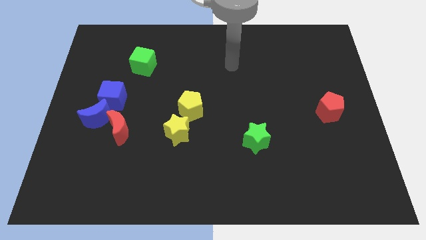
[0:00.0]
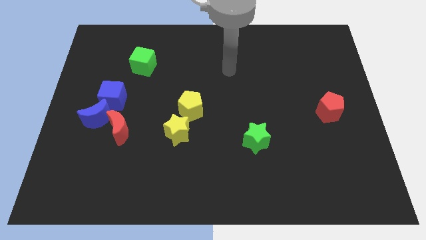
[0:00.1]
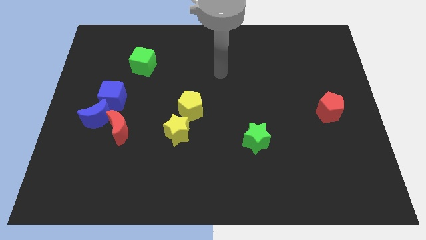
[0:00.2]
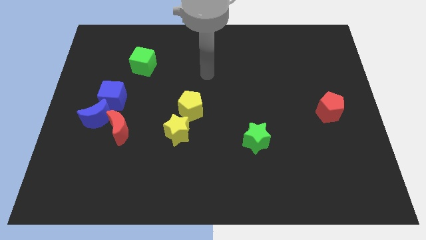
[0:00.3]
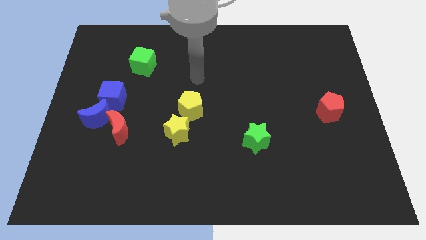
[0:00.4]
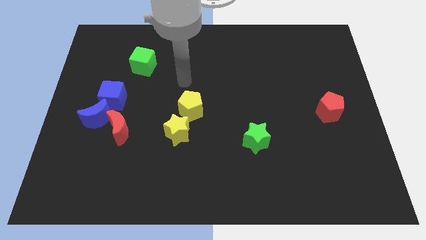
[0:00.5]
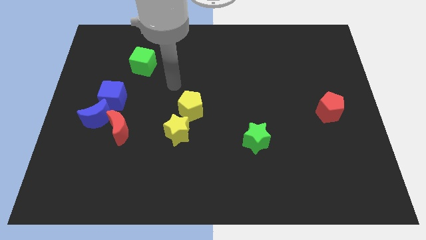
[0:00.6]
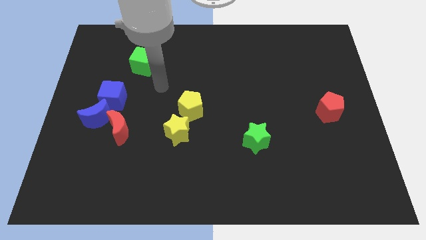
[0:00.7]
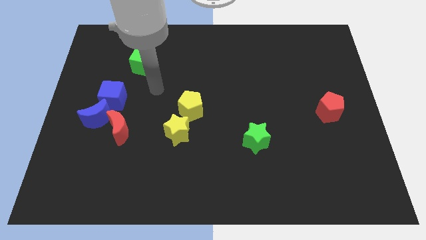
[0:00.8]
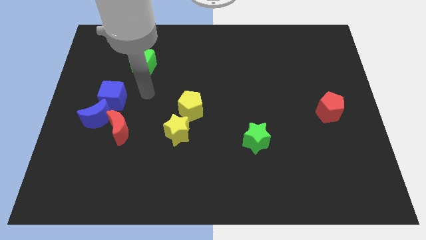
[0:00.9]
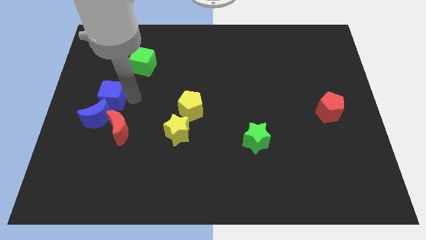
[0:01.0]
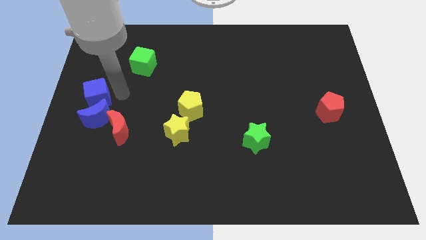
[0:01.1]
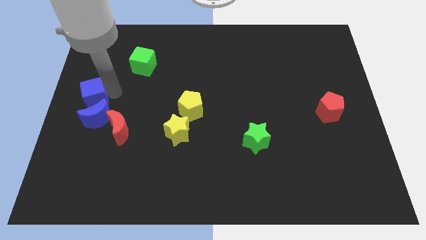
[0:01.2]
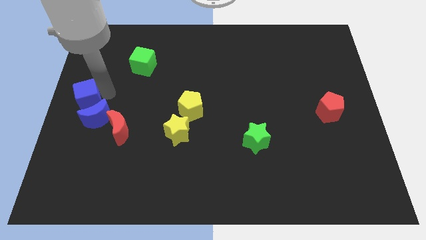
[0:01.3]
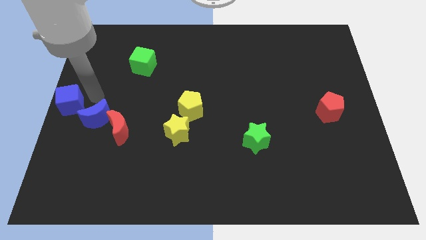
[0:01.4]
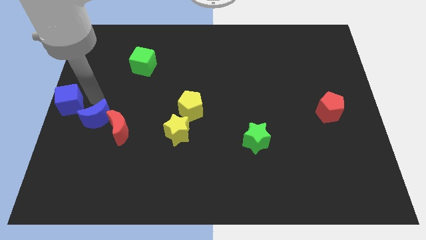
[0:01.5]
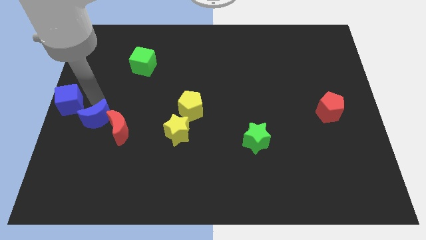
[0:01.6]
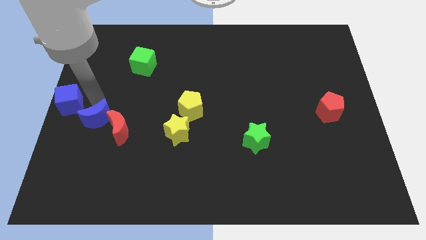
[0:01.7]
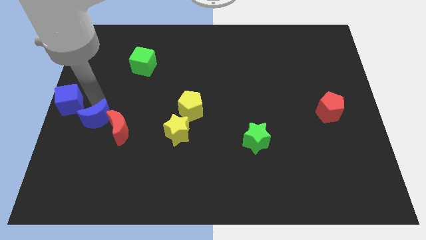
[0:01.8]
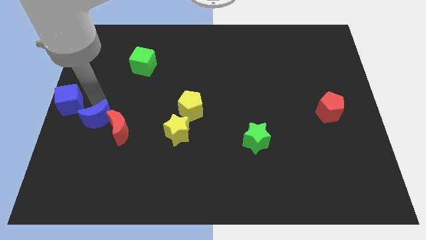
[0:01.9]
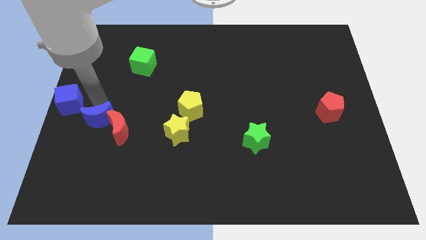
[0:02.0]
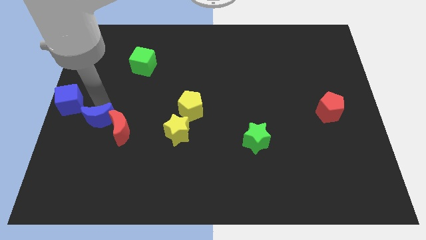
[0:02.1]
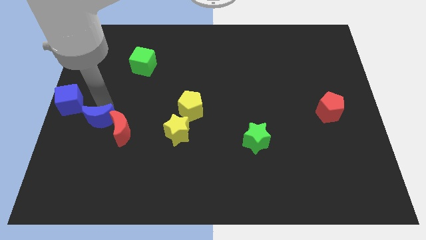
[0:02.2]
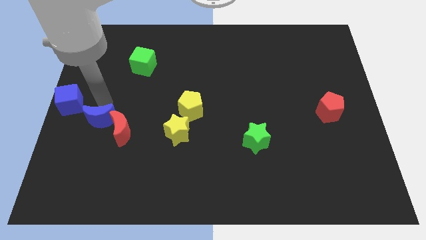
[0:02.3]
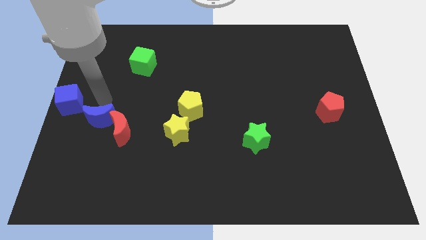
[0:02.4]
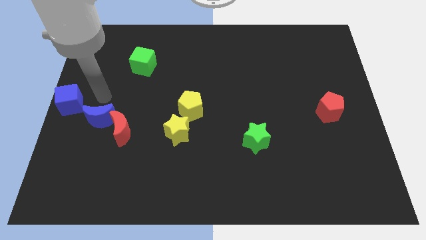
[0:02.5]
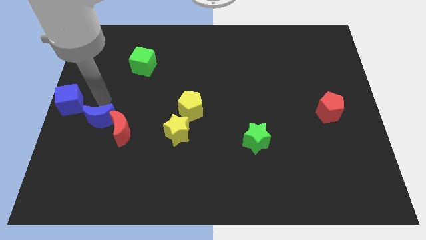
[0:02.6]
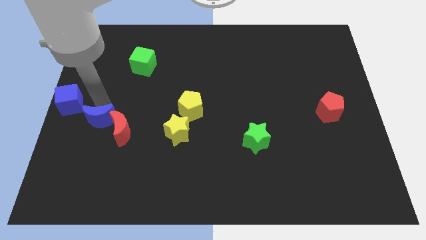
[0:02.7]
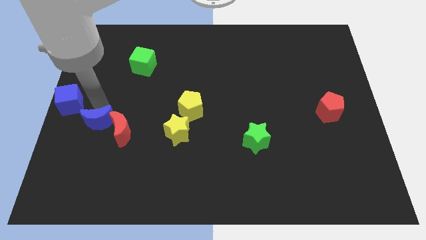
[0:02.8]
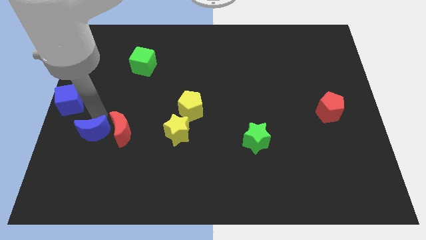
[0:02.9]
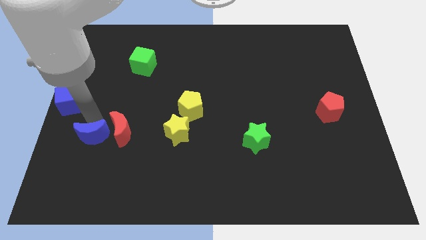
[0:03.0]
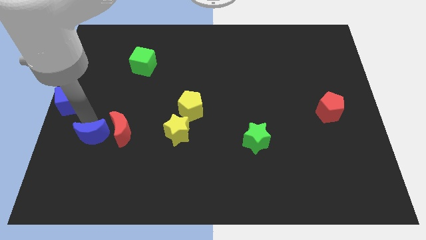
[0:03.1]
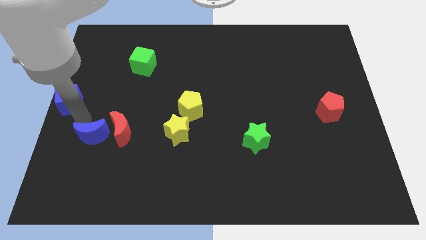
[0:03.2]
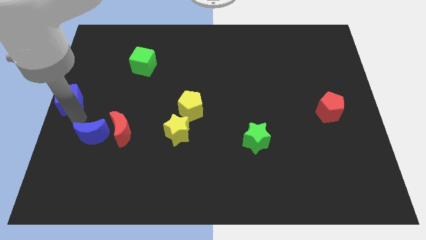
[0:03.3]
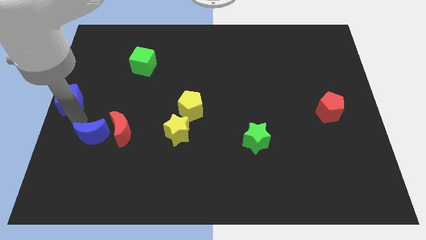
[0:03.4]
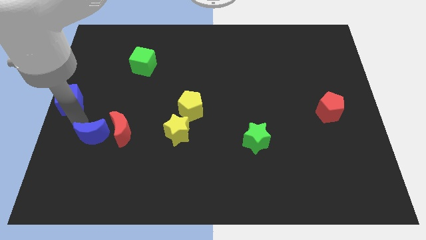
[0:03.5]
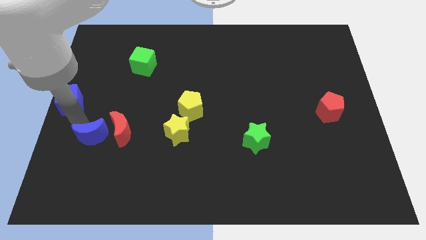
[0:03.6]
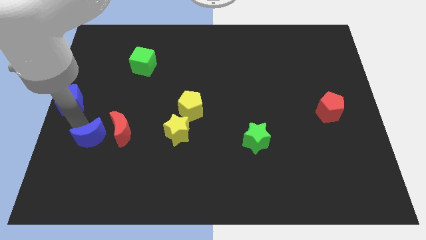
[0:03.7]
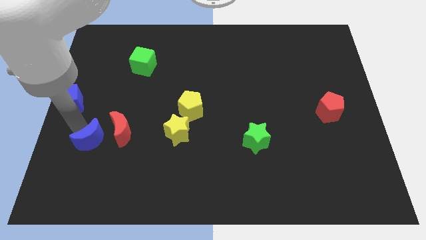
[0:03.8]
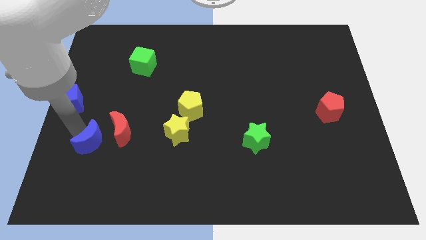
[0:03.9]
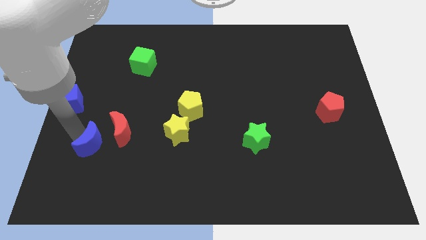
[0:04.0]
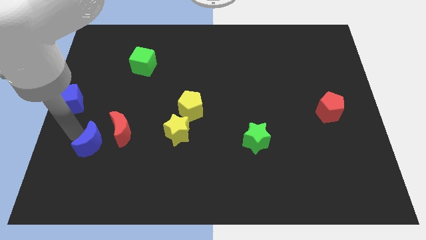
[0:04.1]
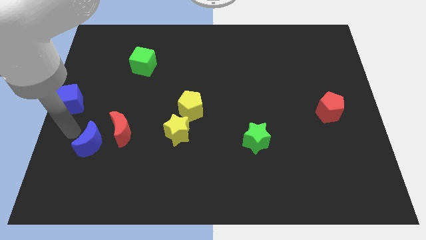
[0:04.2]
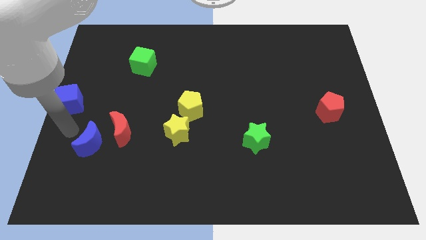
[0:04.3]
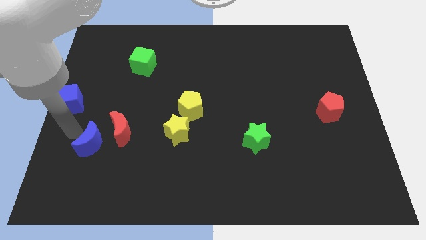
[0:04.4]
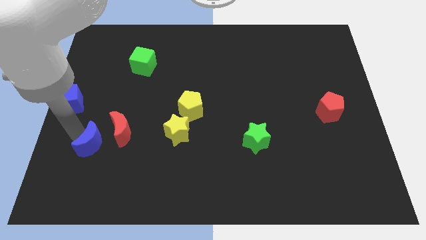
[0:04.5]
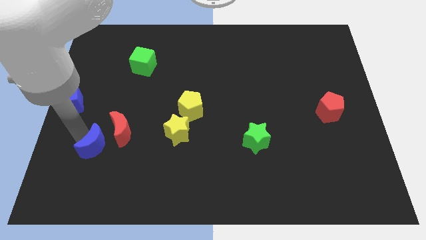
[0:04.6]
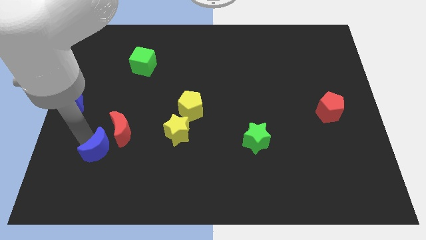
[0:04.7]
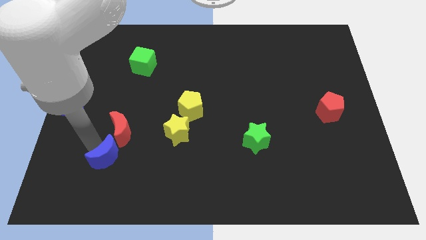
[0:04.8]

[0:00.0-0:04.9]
slightly move the blue moon down and right

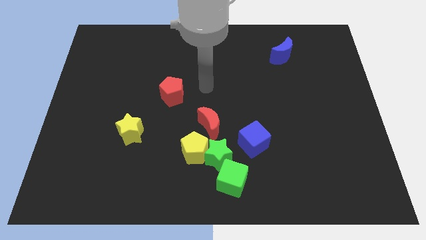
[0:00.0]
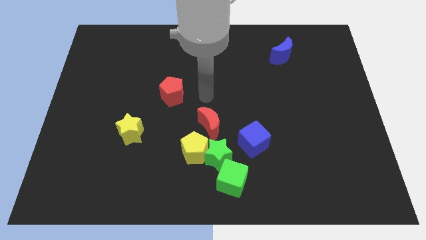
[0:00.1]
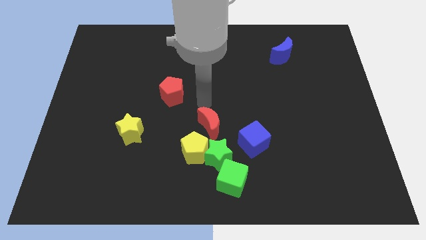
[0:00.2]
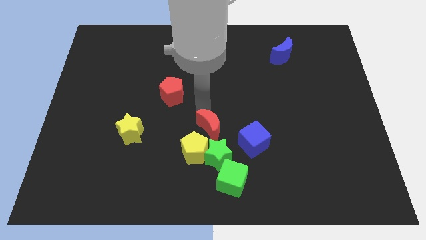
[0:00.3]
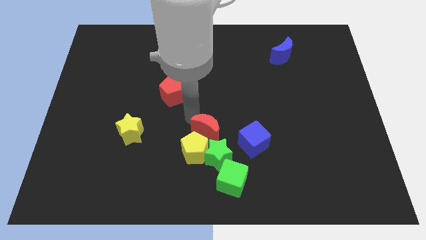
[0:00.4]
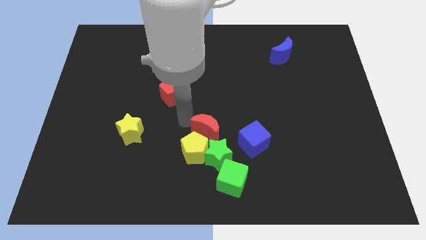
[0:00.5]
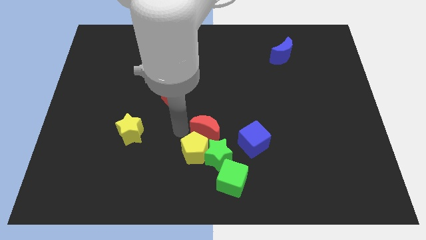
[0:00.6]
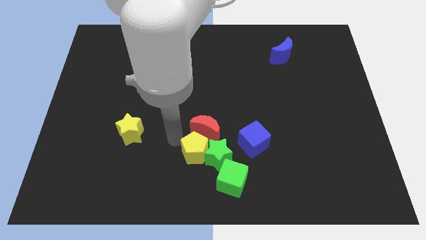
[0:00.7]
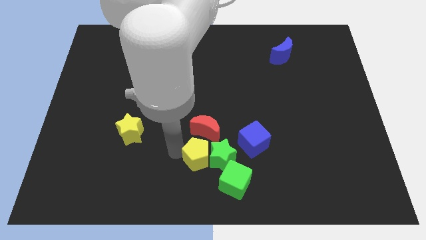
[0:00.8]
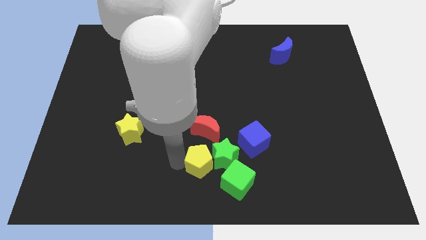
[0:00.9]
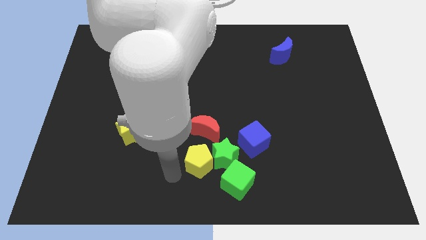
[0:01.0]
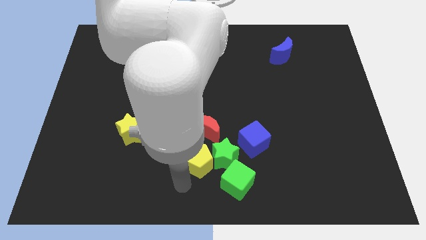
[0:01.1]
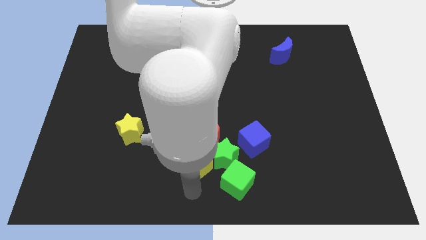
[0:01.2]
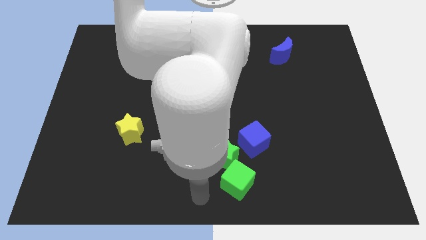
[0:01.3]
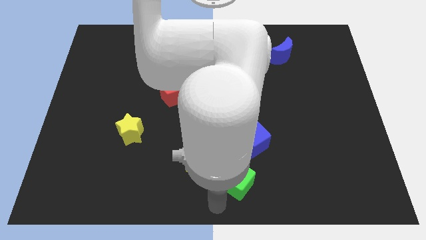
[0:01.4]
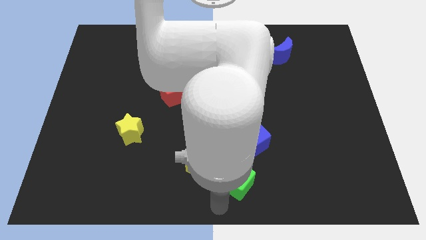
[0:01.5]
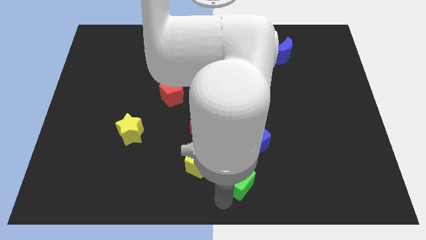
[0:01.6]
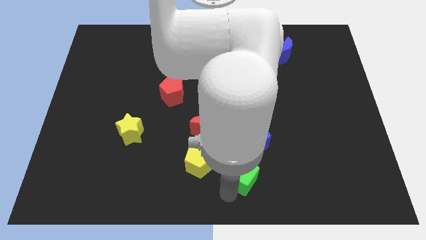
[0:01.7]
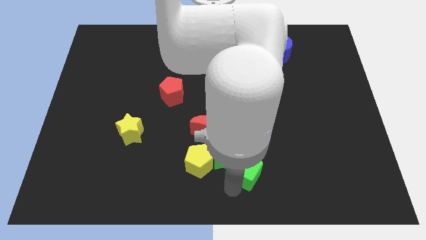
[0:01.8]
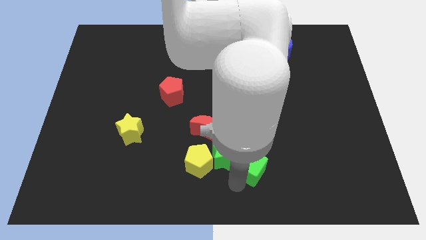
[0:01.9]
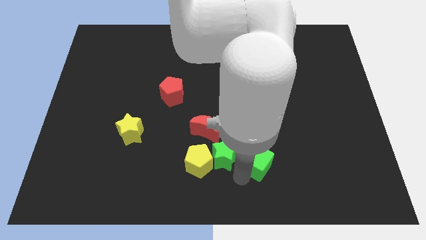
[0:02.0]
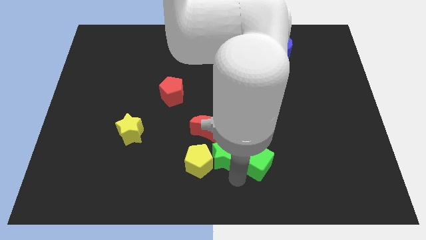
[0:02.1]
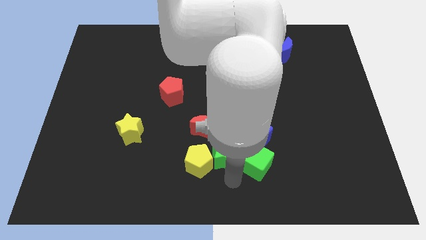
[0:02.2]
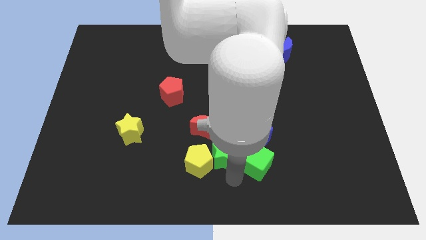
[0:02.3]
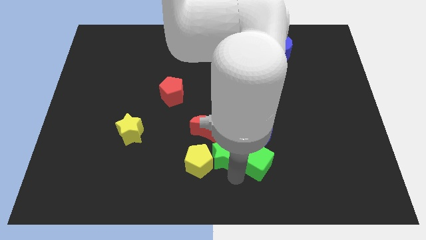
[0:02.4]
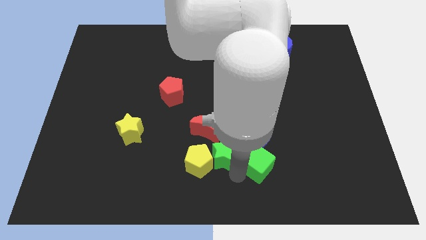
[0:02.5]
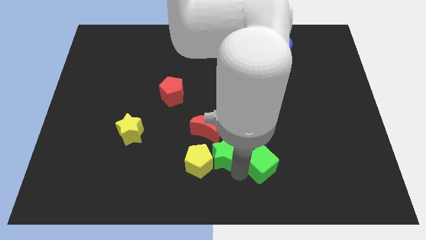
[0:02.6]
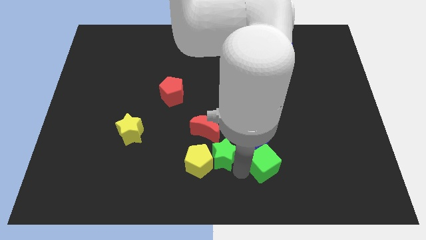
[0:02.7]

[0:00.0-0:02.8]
slightly slide the green cube up and to the right diagonally

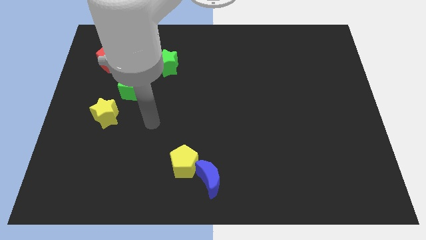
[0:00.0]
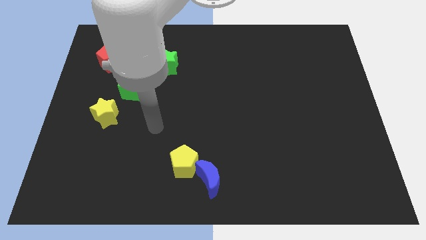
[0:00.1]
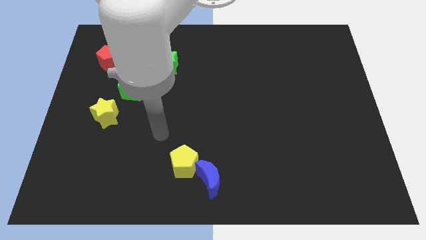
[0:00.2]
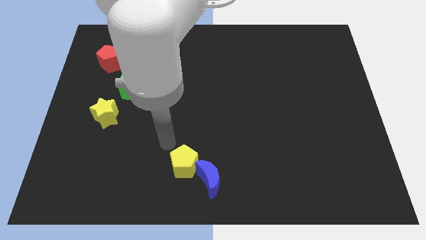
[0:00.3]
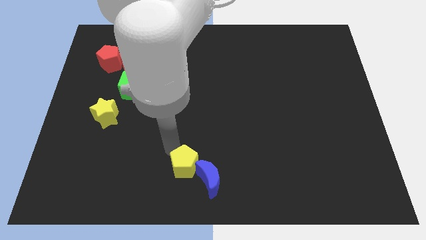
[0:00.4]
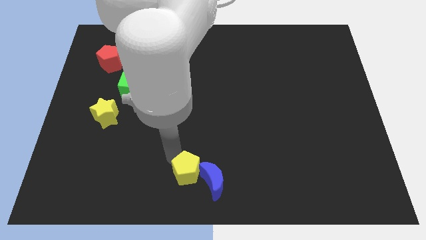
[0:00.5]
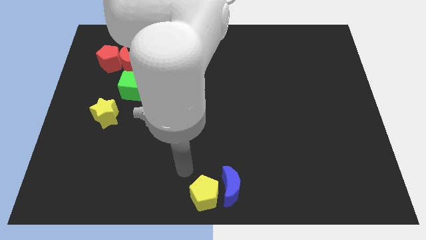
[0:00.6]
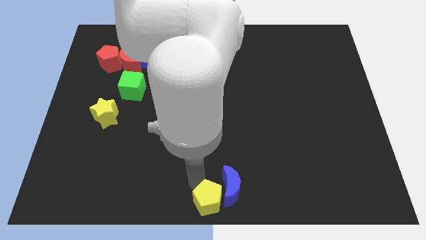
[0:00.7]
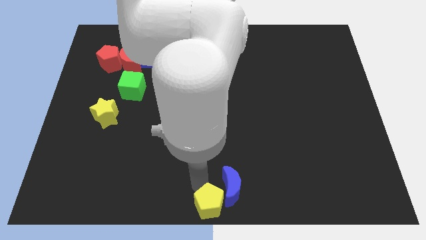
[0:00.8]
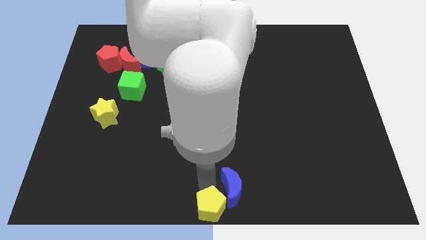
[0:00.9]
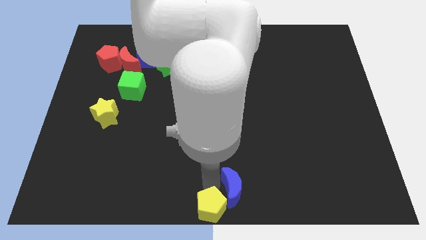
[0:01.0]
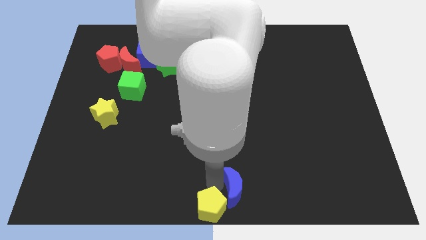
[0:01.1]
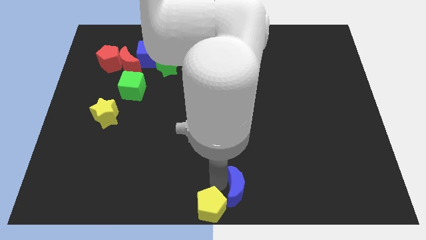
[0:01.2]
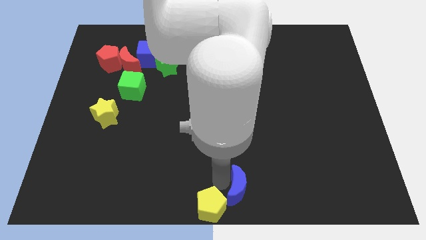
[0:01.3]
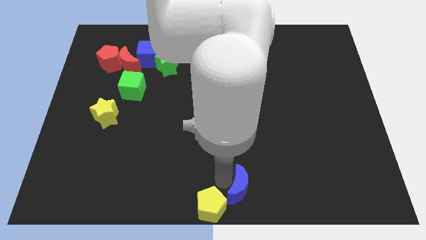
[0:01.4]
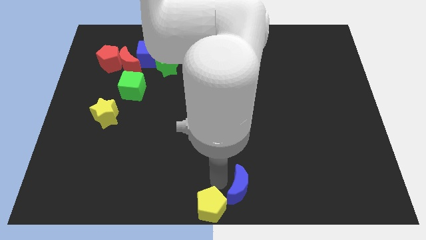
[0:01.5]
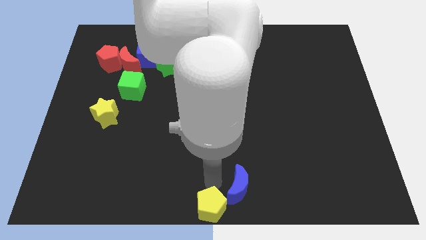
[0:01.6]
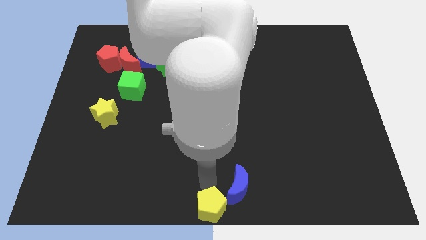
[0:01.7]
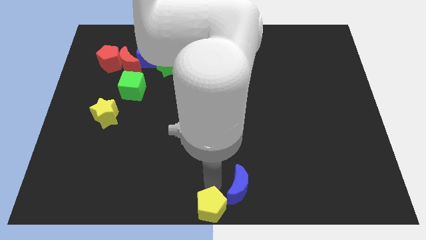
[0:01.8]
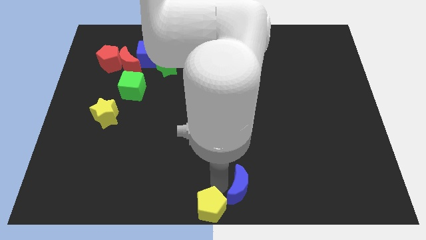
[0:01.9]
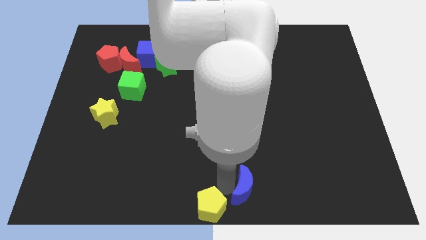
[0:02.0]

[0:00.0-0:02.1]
slide the blue moon a little right
